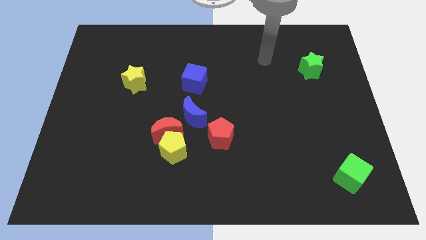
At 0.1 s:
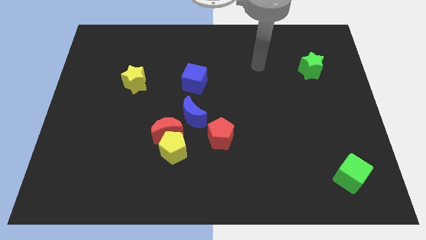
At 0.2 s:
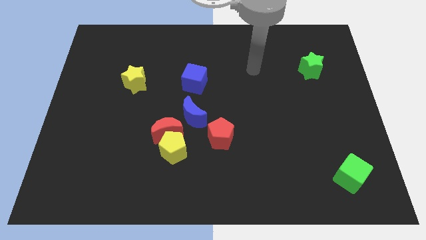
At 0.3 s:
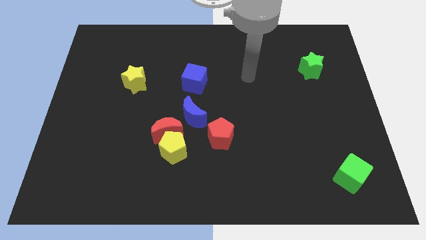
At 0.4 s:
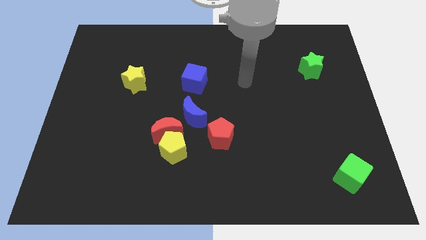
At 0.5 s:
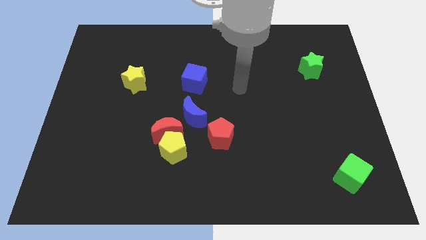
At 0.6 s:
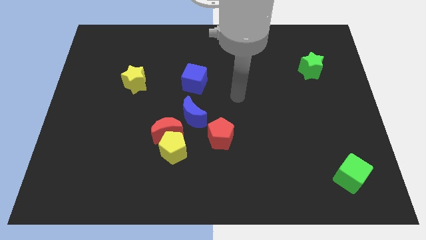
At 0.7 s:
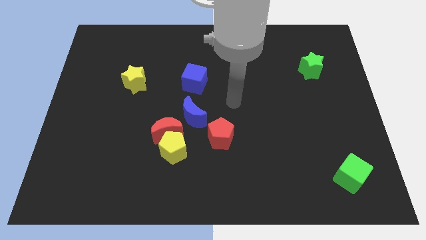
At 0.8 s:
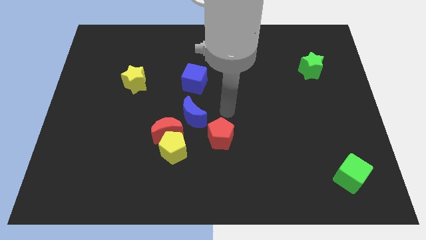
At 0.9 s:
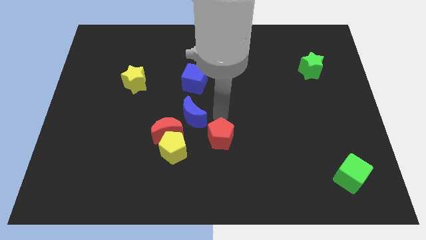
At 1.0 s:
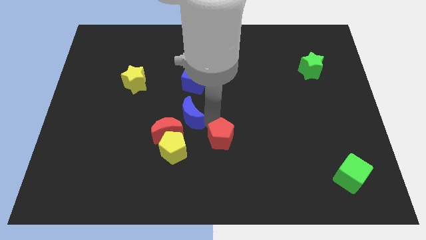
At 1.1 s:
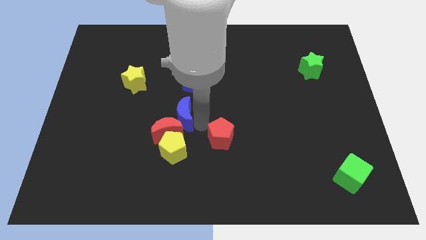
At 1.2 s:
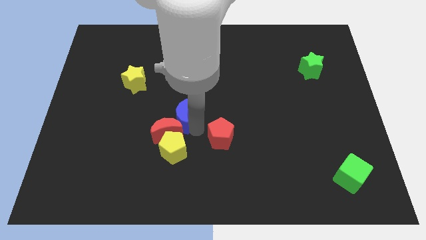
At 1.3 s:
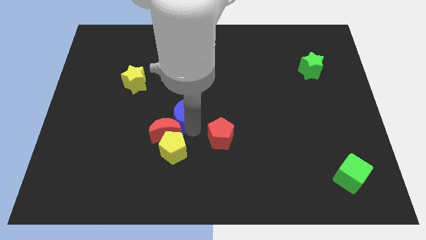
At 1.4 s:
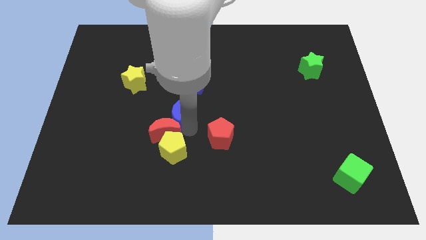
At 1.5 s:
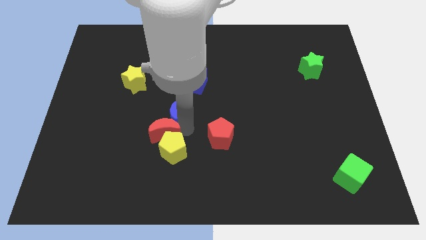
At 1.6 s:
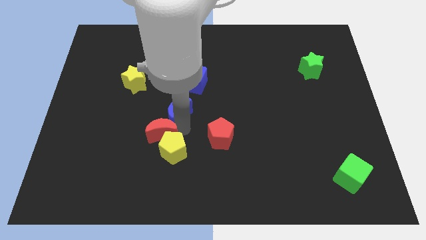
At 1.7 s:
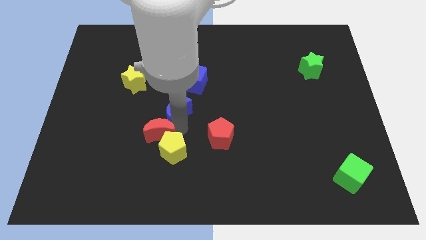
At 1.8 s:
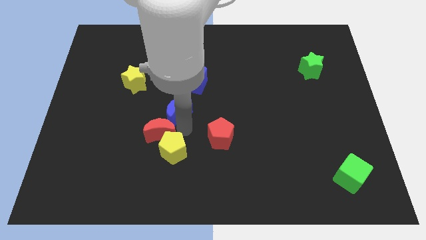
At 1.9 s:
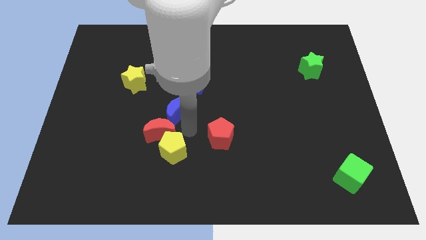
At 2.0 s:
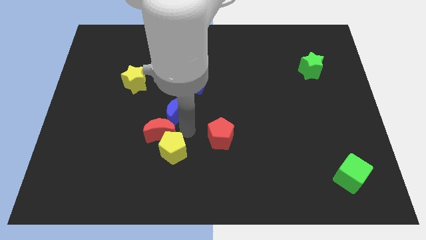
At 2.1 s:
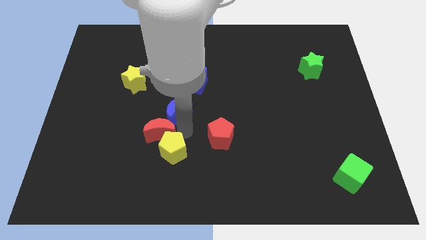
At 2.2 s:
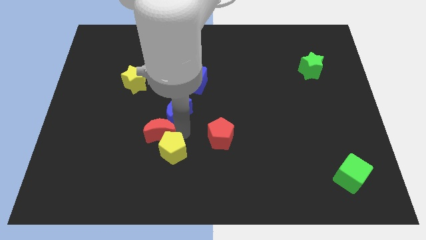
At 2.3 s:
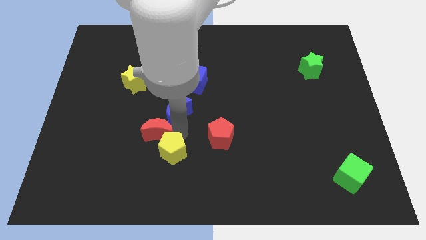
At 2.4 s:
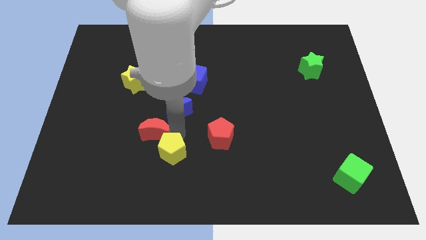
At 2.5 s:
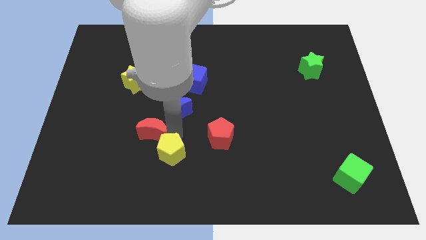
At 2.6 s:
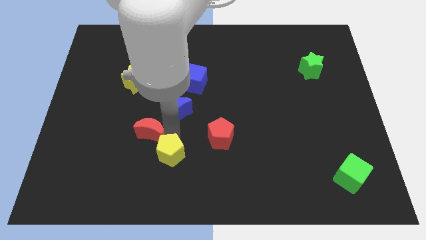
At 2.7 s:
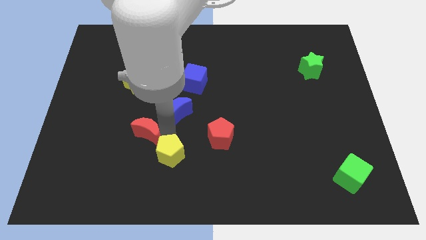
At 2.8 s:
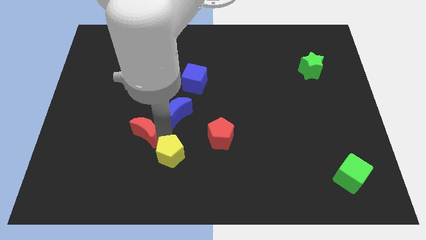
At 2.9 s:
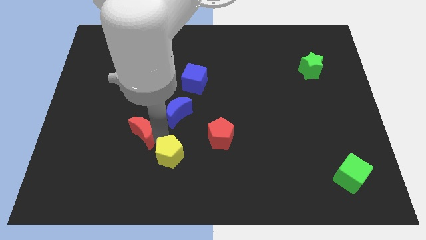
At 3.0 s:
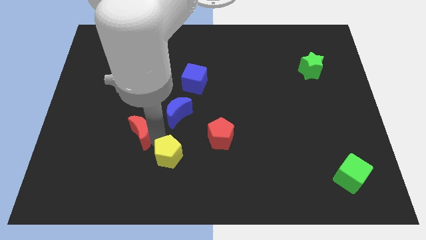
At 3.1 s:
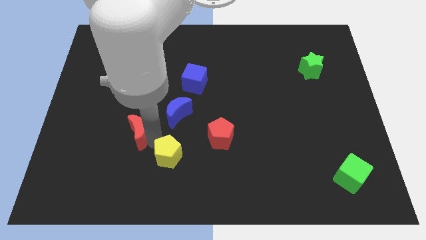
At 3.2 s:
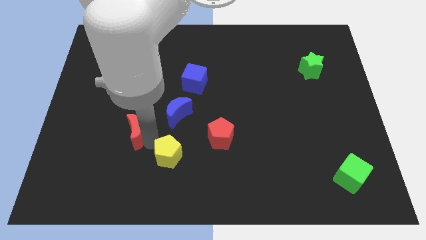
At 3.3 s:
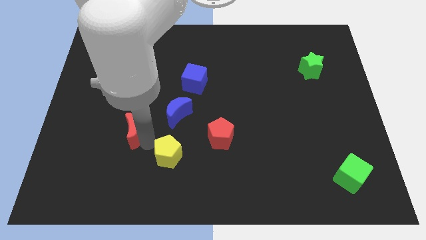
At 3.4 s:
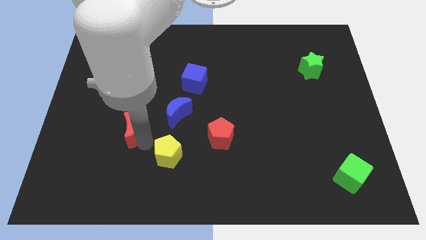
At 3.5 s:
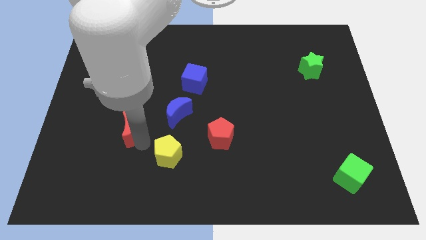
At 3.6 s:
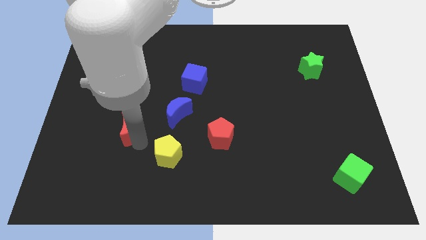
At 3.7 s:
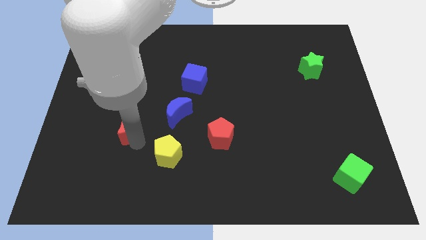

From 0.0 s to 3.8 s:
move the red moon away from the yellow pentagon and blue moon

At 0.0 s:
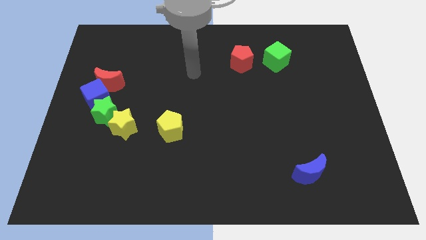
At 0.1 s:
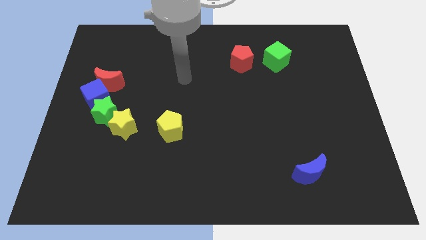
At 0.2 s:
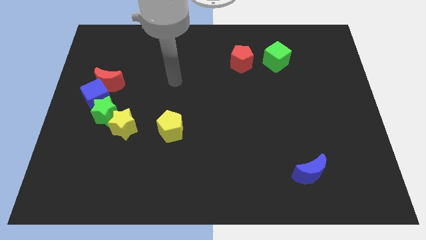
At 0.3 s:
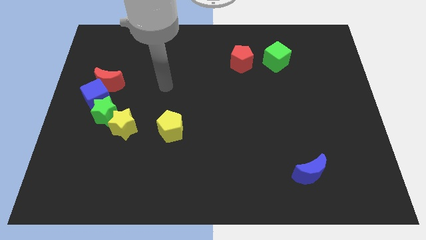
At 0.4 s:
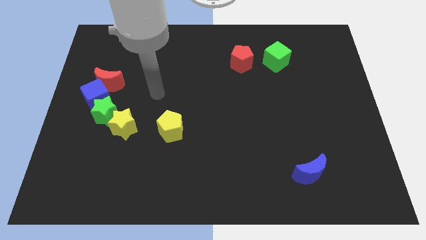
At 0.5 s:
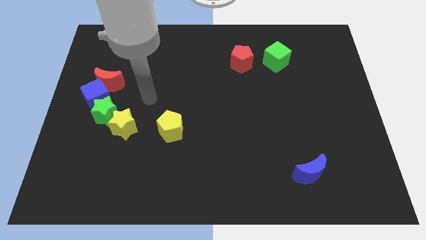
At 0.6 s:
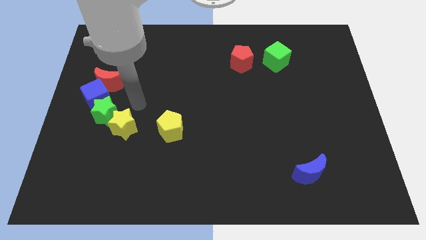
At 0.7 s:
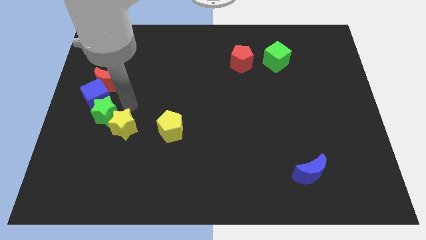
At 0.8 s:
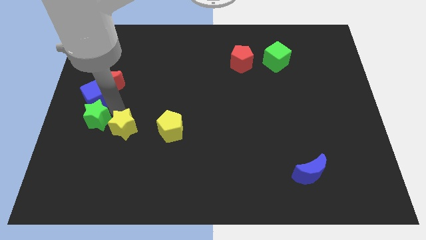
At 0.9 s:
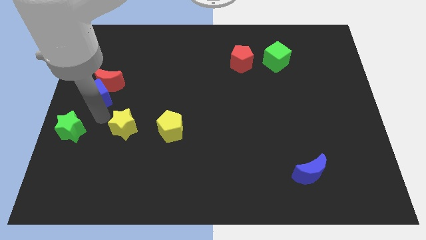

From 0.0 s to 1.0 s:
separate the yellow star from the green star

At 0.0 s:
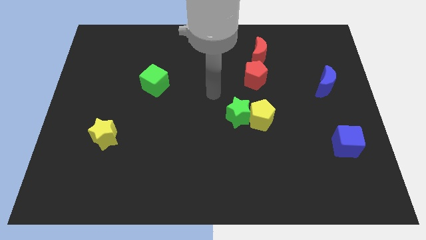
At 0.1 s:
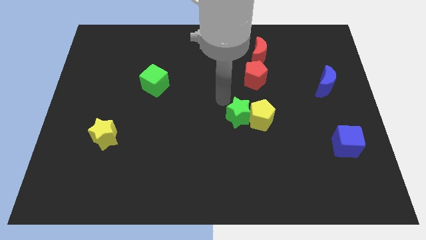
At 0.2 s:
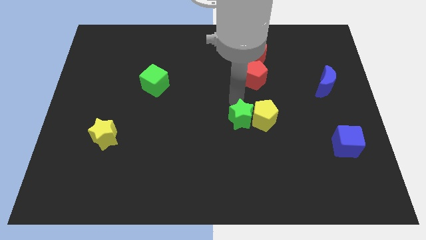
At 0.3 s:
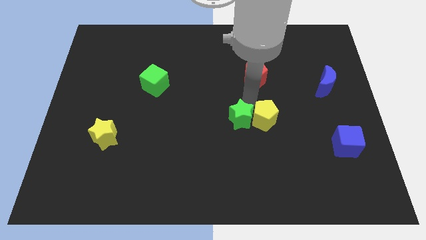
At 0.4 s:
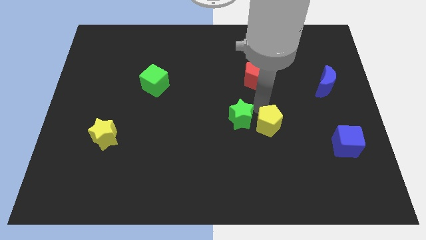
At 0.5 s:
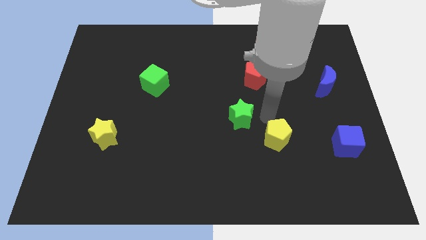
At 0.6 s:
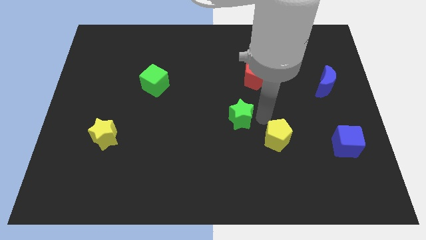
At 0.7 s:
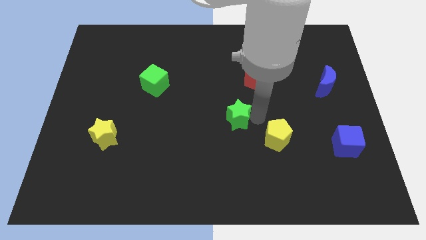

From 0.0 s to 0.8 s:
move the green star away from the yellow pentagon

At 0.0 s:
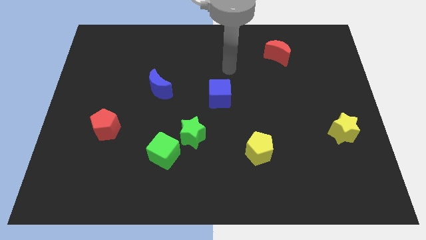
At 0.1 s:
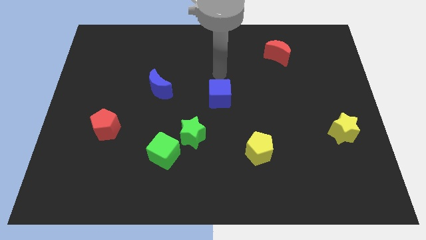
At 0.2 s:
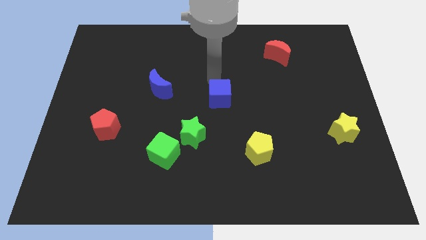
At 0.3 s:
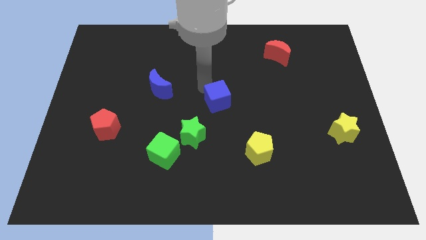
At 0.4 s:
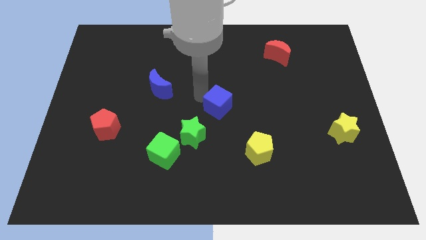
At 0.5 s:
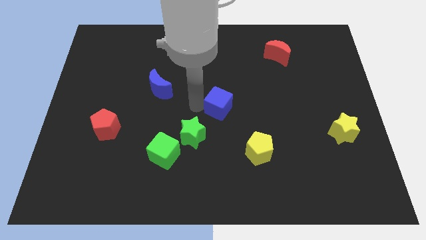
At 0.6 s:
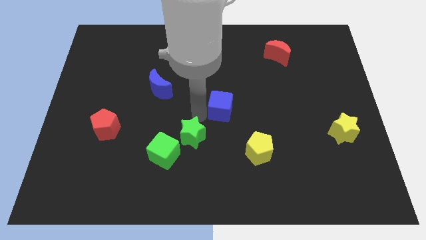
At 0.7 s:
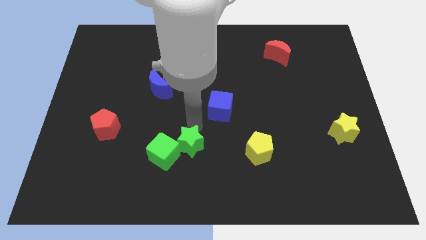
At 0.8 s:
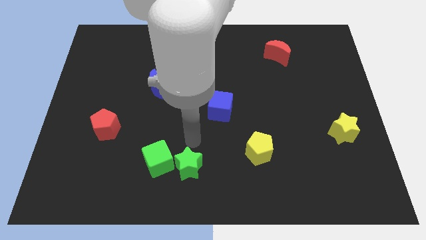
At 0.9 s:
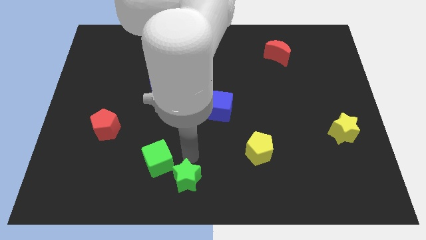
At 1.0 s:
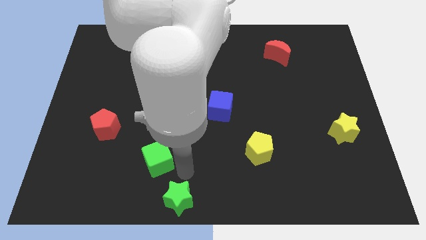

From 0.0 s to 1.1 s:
pull the green cube apart from the green star

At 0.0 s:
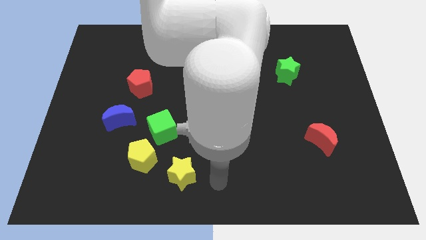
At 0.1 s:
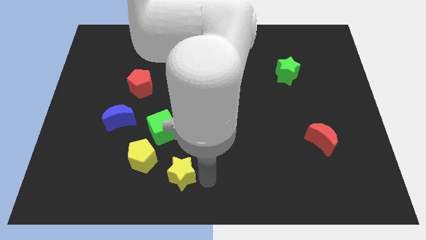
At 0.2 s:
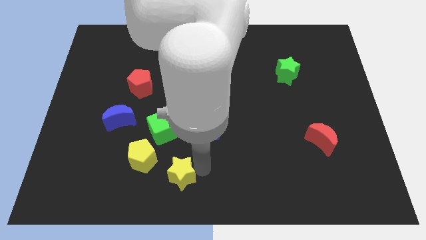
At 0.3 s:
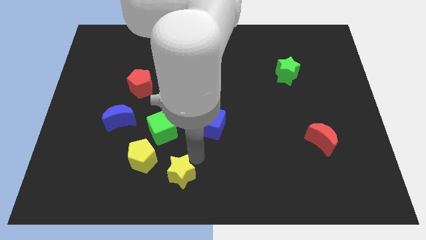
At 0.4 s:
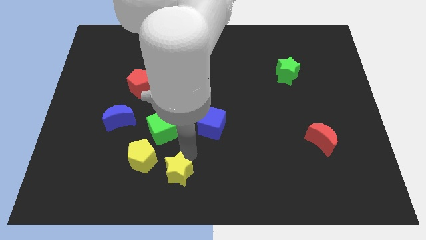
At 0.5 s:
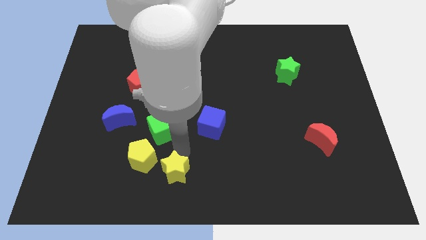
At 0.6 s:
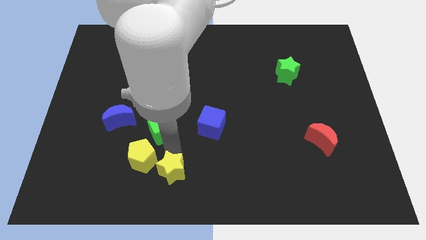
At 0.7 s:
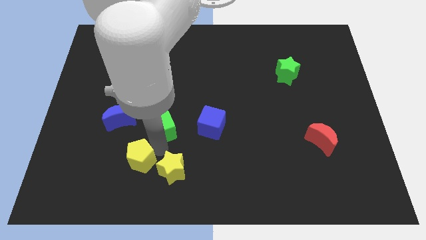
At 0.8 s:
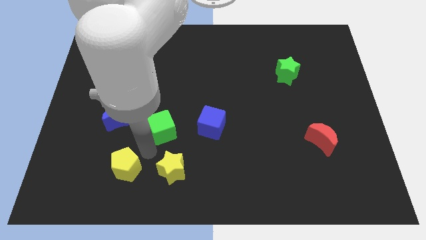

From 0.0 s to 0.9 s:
pull the green cube apart from the yellow pentagon

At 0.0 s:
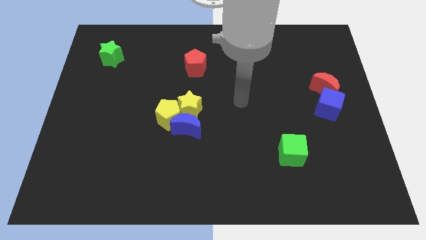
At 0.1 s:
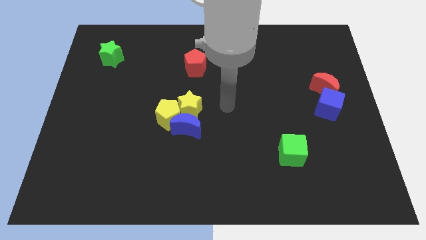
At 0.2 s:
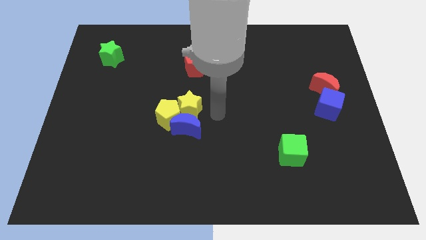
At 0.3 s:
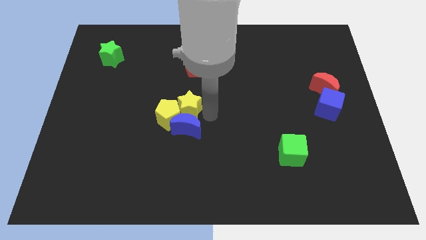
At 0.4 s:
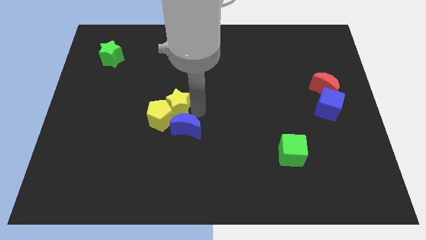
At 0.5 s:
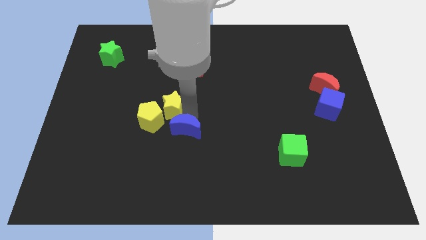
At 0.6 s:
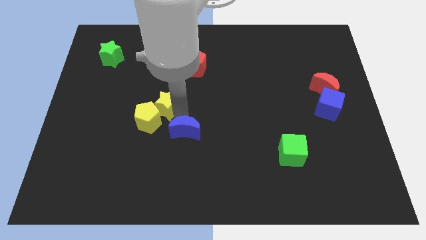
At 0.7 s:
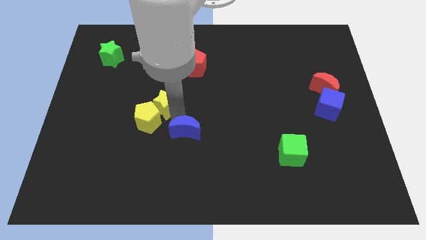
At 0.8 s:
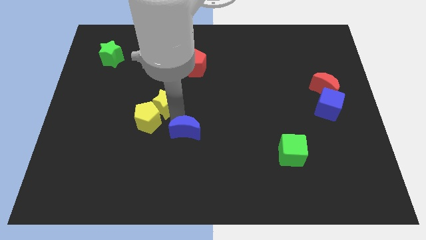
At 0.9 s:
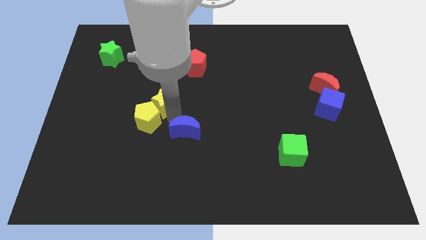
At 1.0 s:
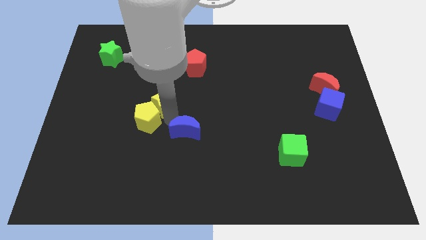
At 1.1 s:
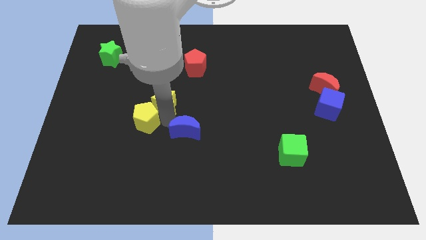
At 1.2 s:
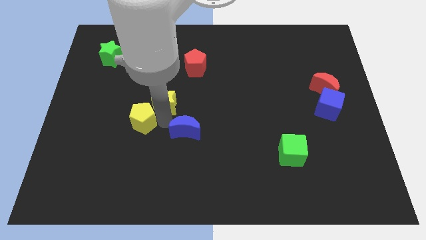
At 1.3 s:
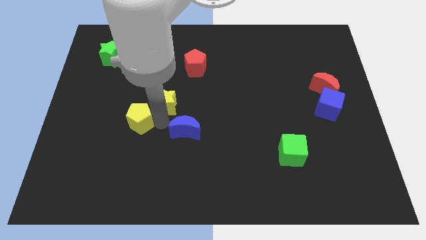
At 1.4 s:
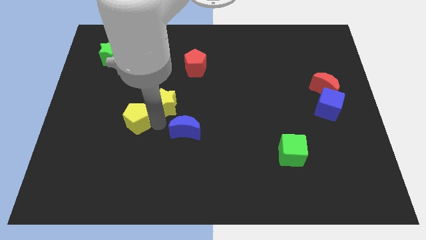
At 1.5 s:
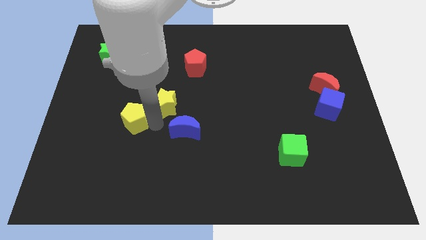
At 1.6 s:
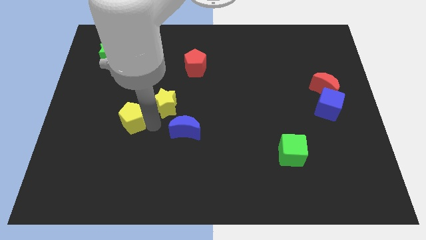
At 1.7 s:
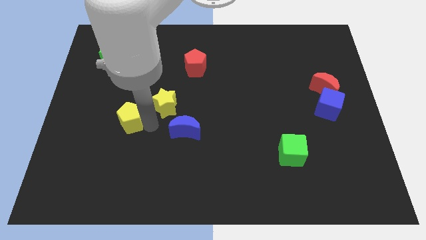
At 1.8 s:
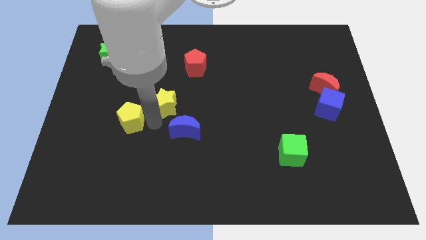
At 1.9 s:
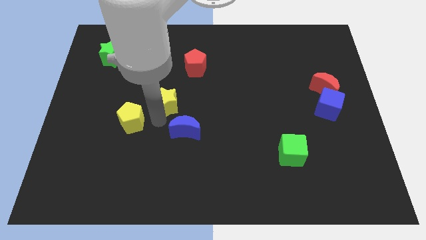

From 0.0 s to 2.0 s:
move the yellow pentagon away from the yellow star and blue moon
